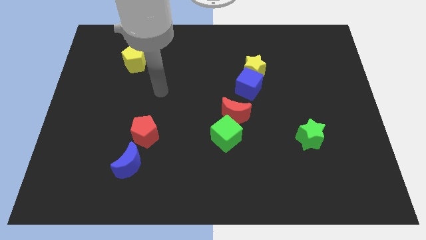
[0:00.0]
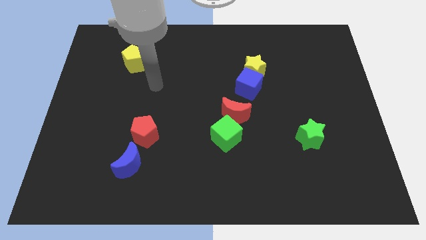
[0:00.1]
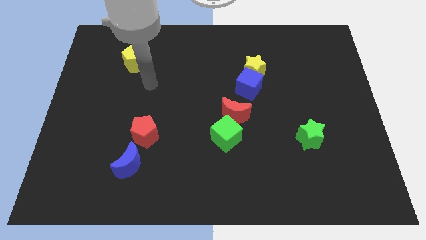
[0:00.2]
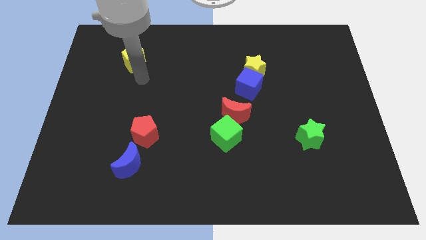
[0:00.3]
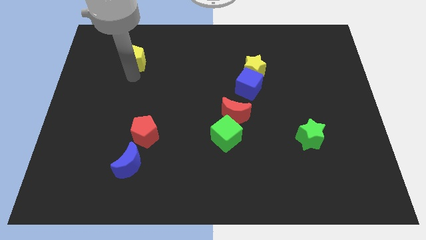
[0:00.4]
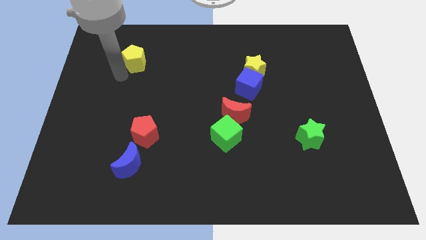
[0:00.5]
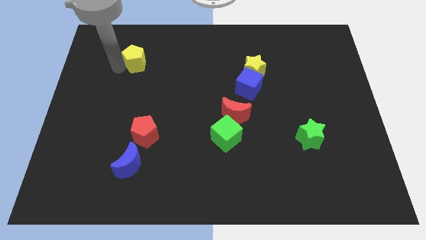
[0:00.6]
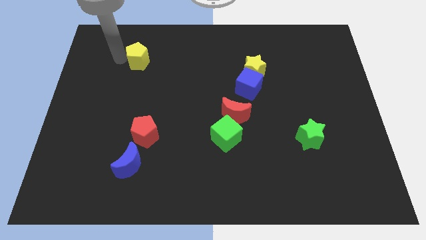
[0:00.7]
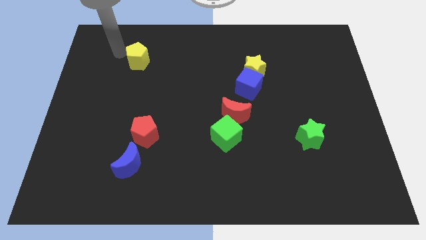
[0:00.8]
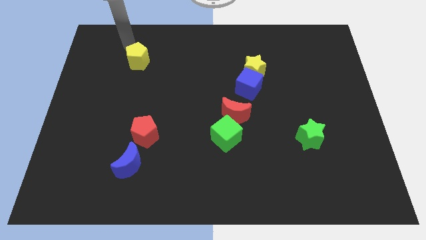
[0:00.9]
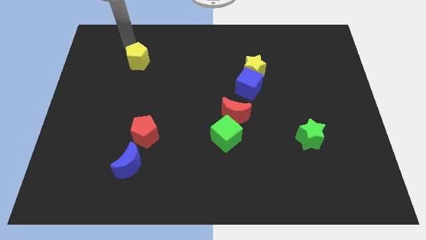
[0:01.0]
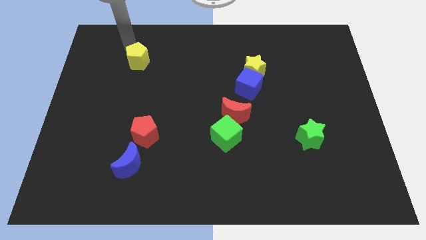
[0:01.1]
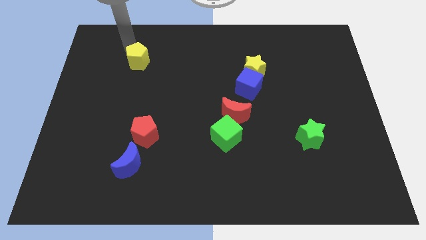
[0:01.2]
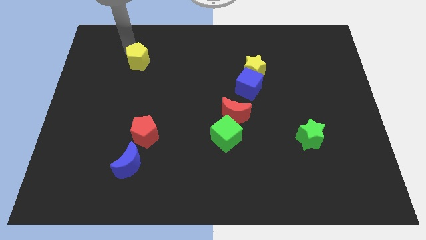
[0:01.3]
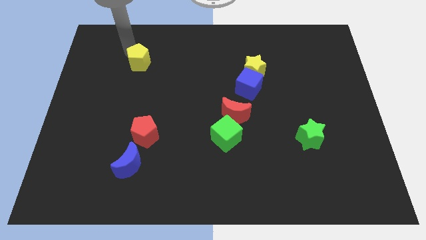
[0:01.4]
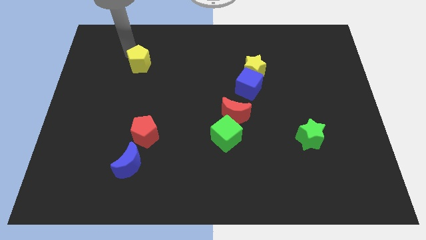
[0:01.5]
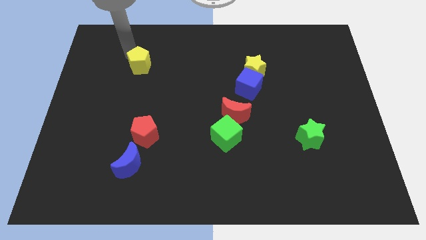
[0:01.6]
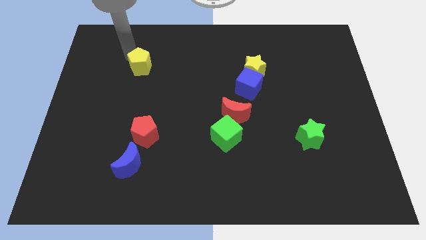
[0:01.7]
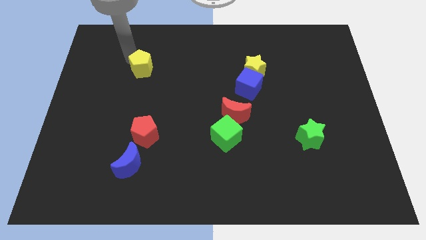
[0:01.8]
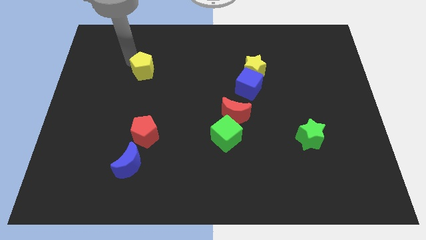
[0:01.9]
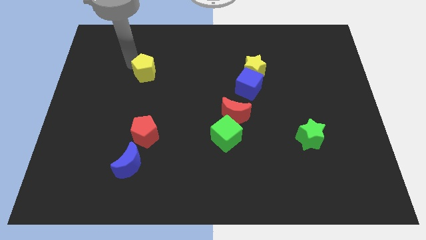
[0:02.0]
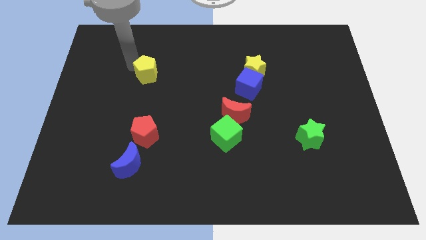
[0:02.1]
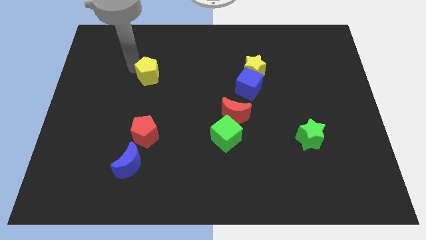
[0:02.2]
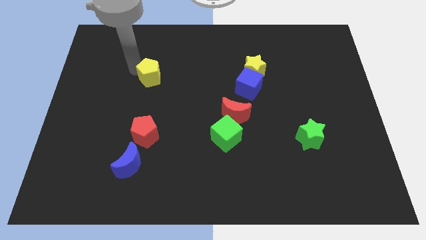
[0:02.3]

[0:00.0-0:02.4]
slide the yellow pentagon diagonally down and to the right slightly

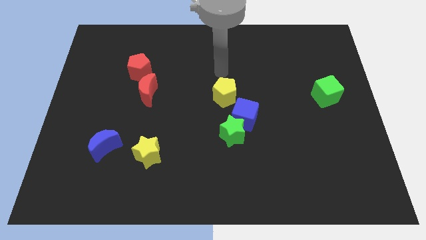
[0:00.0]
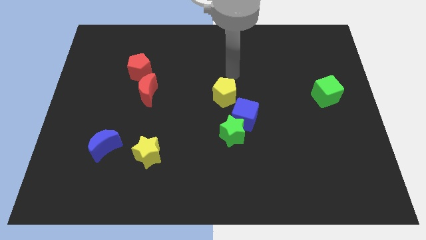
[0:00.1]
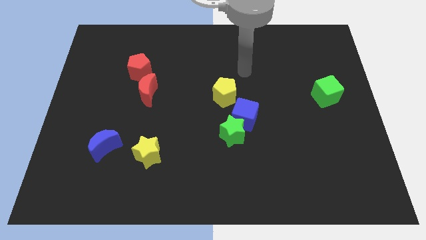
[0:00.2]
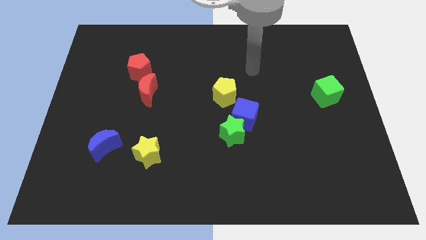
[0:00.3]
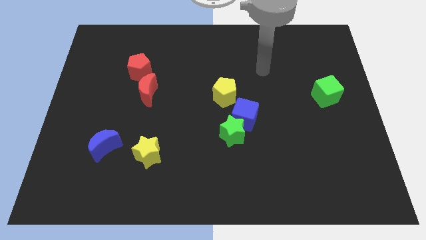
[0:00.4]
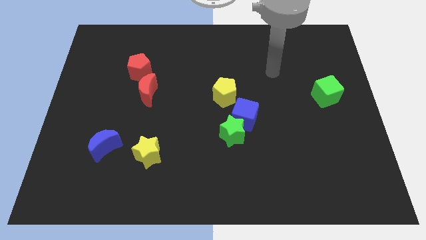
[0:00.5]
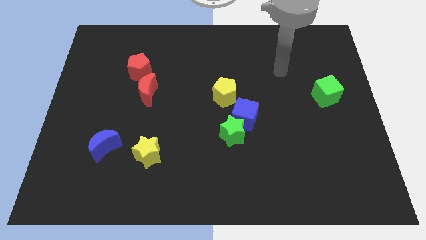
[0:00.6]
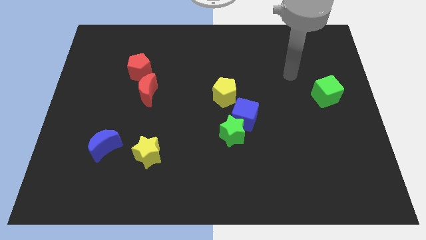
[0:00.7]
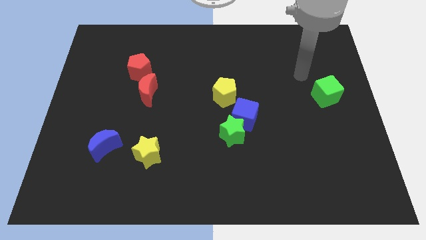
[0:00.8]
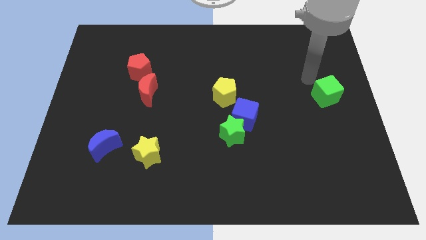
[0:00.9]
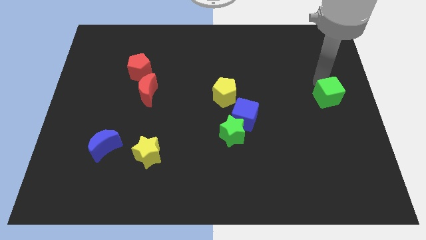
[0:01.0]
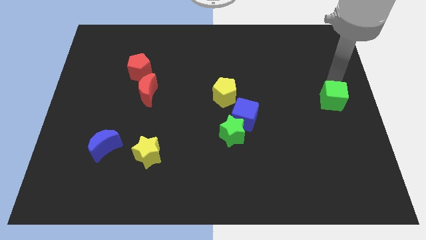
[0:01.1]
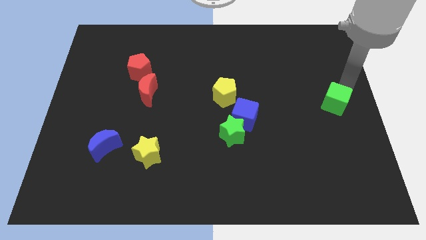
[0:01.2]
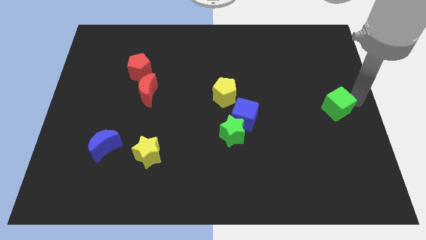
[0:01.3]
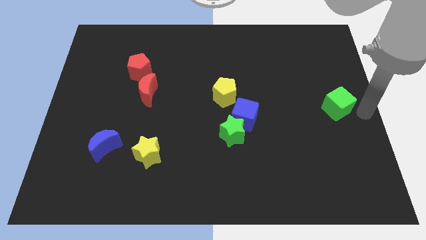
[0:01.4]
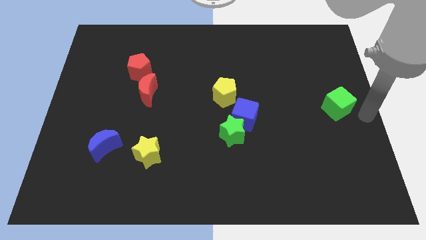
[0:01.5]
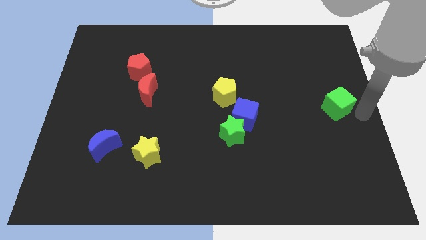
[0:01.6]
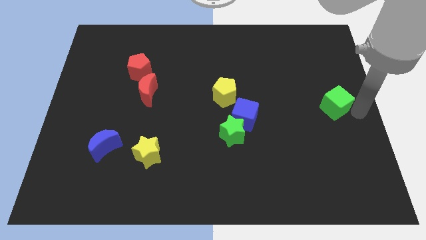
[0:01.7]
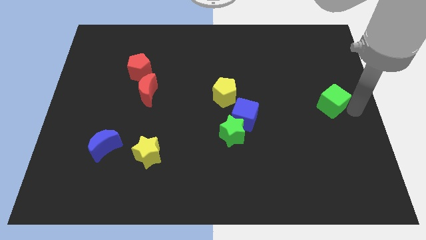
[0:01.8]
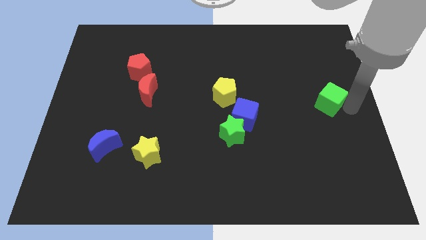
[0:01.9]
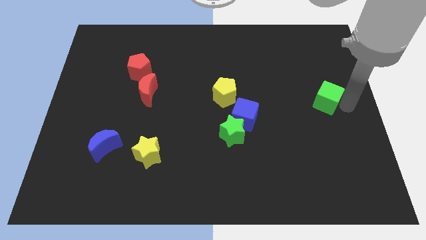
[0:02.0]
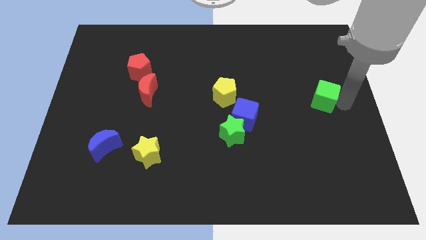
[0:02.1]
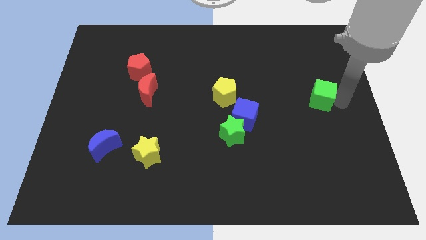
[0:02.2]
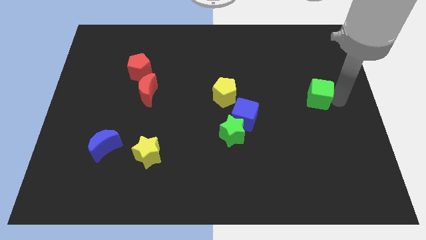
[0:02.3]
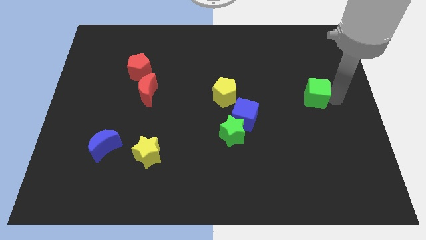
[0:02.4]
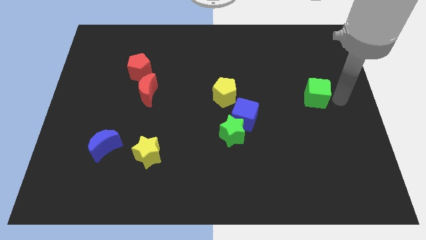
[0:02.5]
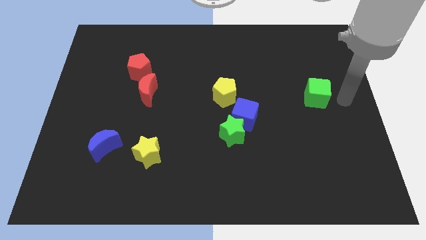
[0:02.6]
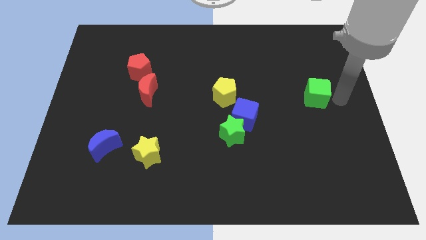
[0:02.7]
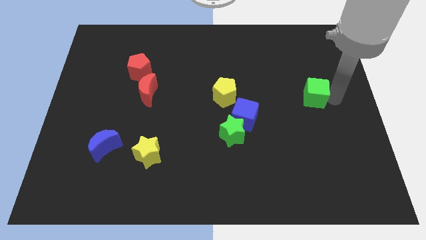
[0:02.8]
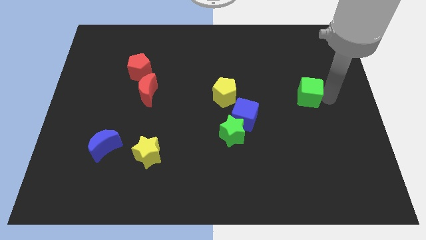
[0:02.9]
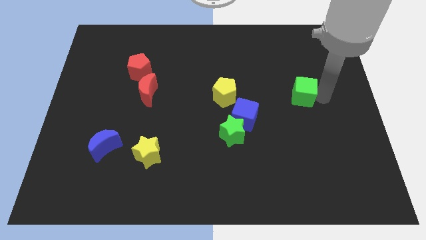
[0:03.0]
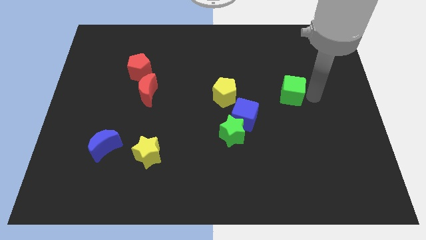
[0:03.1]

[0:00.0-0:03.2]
push the green cube left a bit

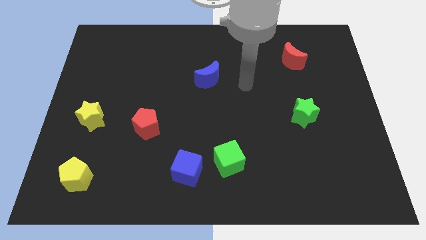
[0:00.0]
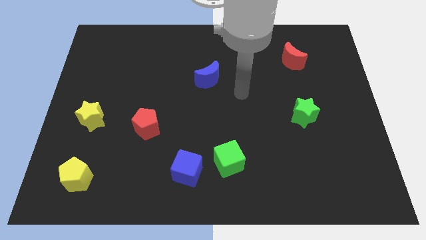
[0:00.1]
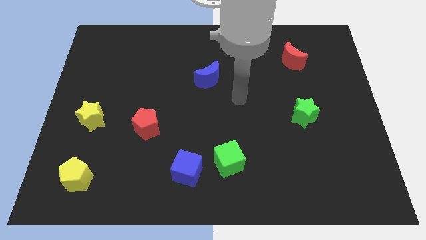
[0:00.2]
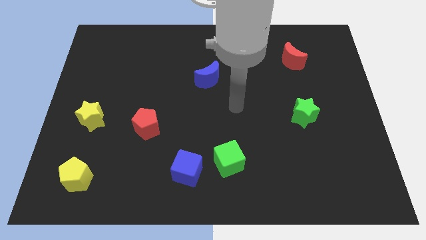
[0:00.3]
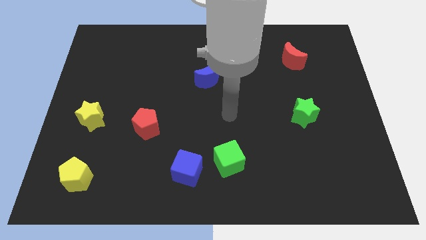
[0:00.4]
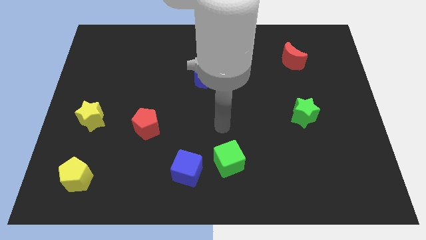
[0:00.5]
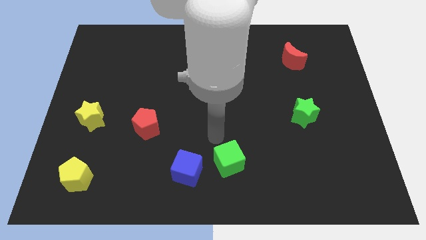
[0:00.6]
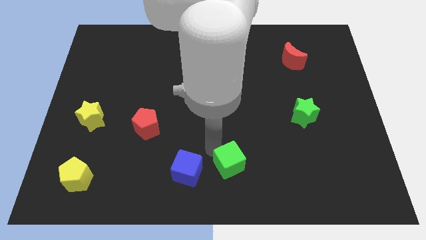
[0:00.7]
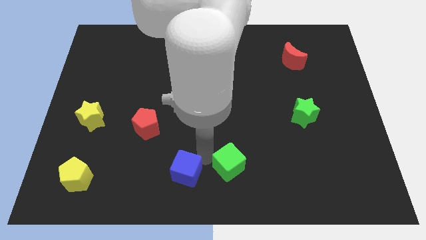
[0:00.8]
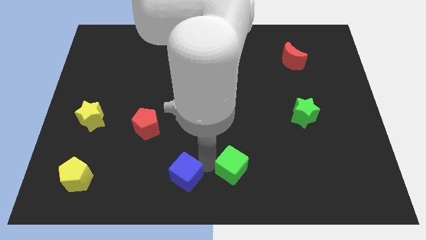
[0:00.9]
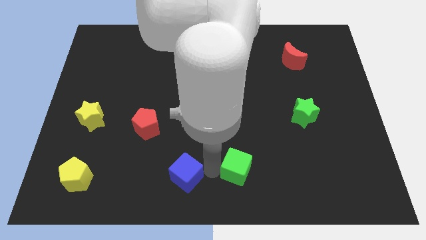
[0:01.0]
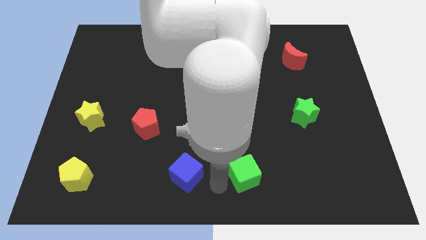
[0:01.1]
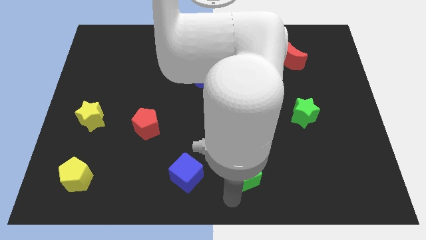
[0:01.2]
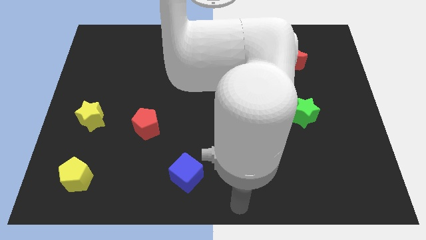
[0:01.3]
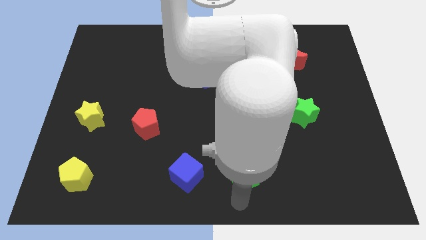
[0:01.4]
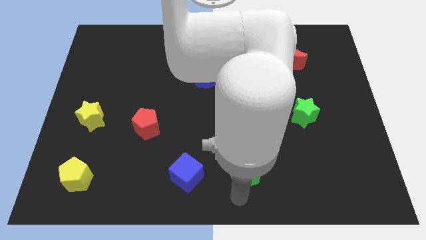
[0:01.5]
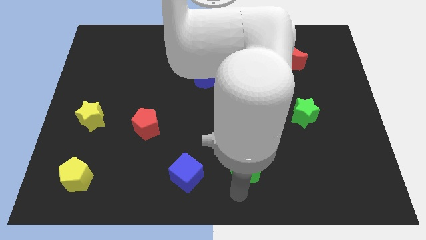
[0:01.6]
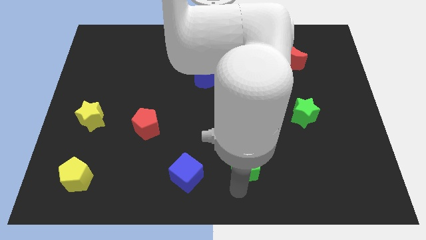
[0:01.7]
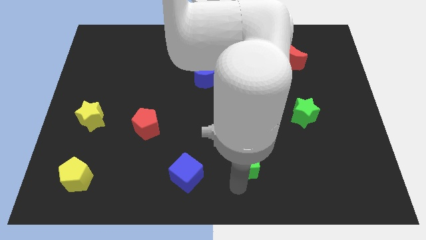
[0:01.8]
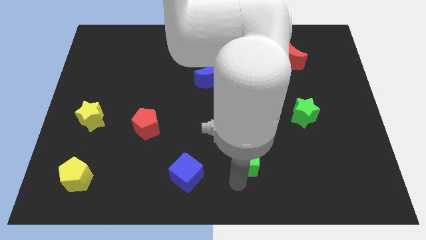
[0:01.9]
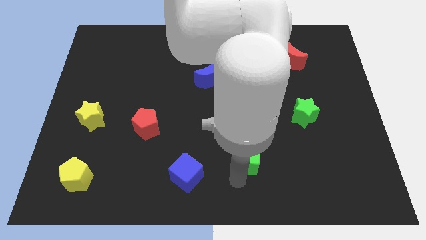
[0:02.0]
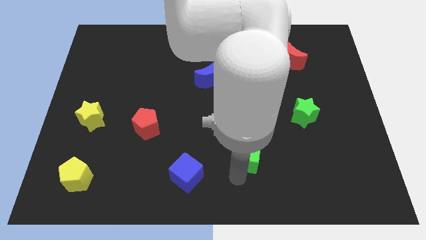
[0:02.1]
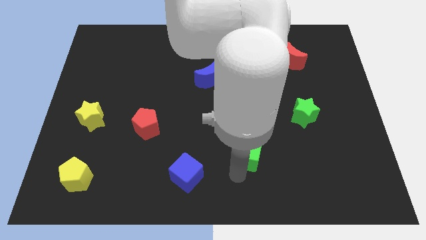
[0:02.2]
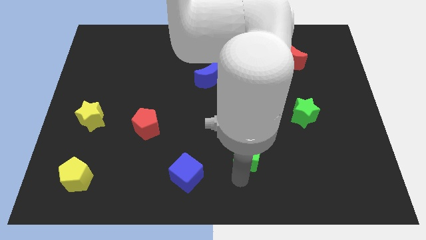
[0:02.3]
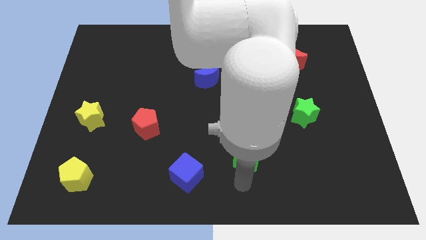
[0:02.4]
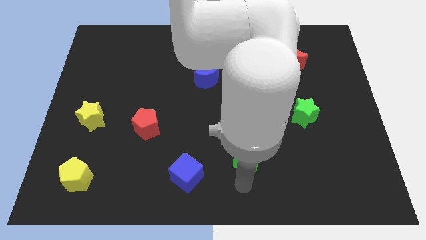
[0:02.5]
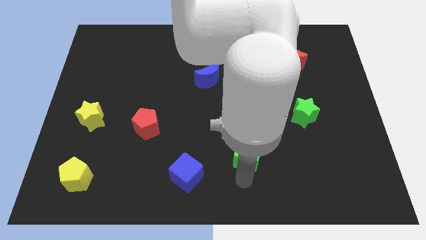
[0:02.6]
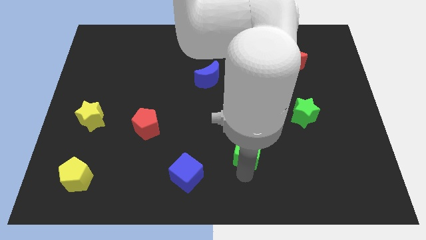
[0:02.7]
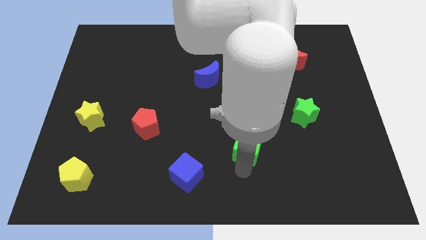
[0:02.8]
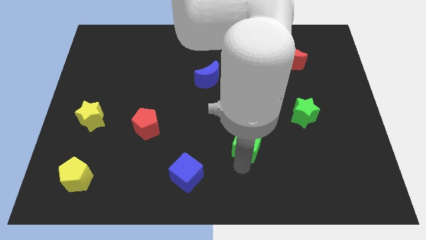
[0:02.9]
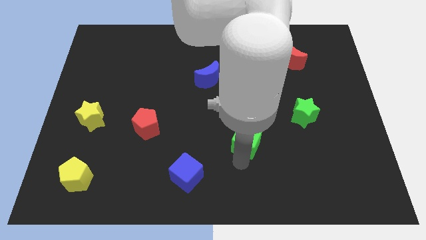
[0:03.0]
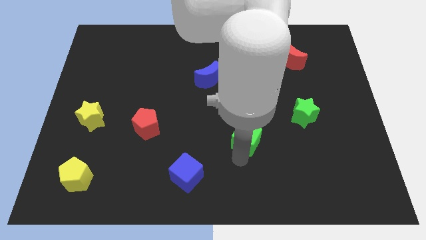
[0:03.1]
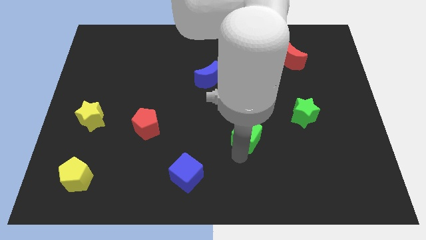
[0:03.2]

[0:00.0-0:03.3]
slide the green cube up and then to the right a little bit
